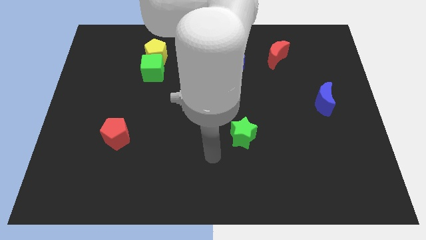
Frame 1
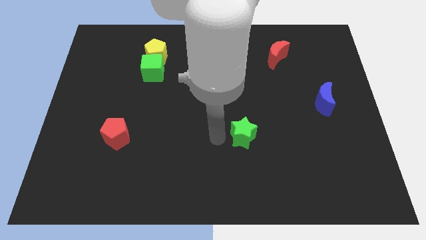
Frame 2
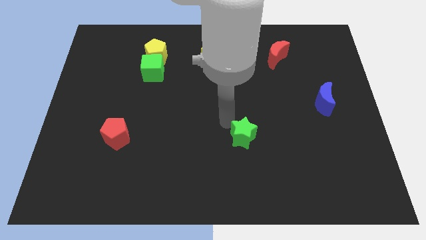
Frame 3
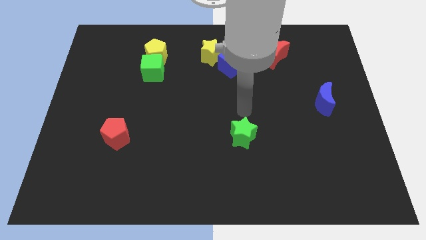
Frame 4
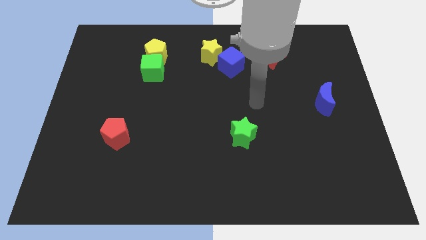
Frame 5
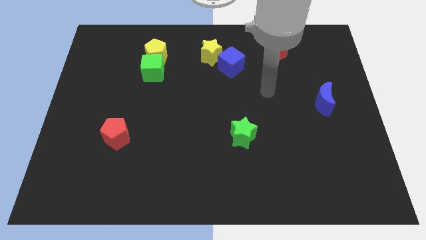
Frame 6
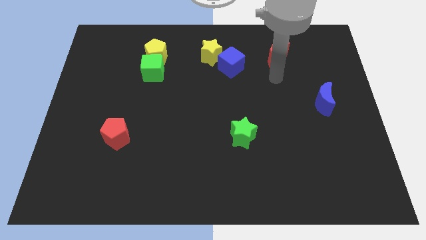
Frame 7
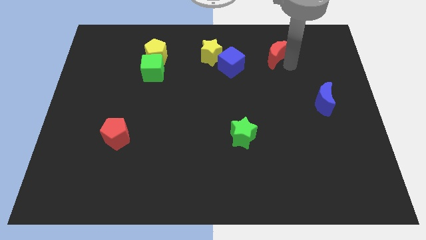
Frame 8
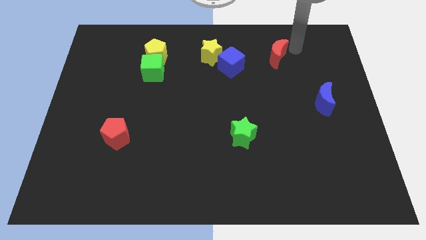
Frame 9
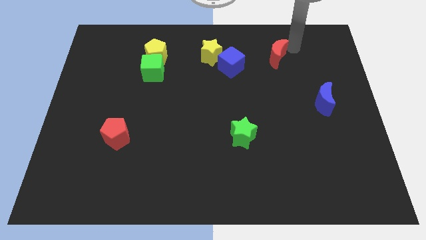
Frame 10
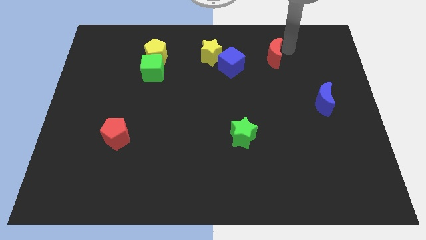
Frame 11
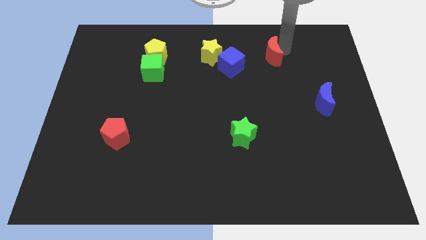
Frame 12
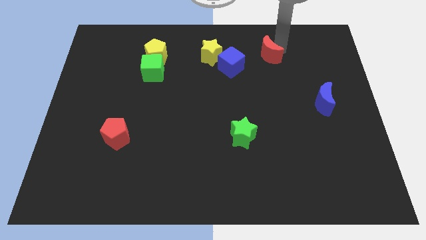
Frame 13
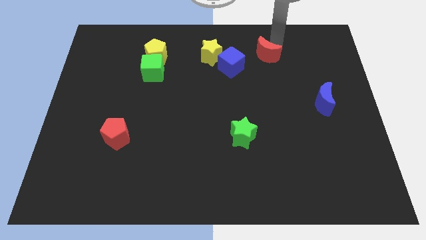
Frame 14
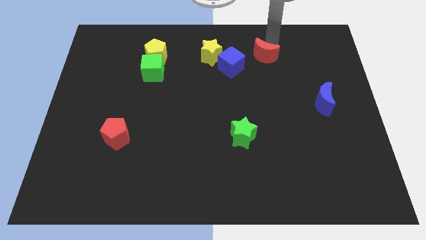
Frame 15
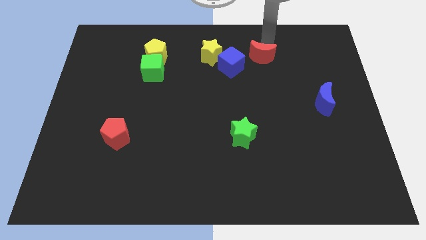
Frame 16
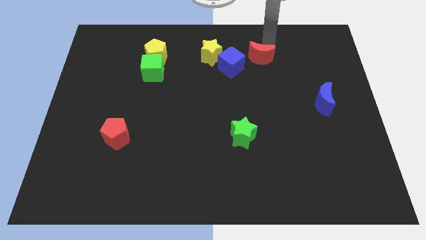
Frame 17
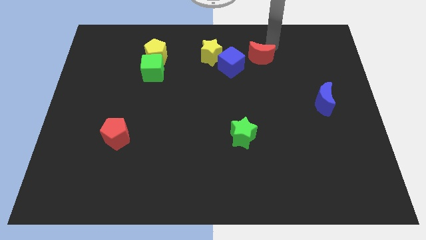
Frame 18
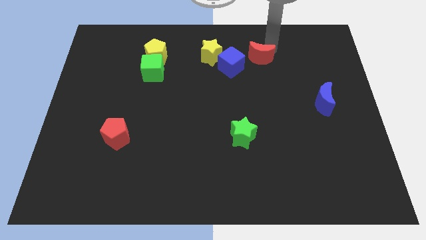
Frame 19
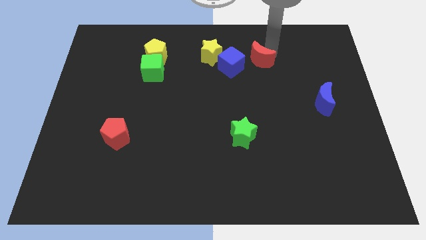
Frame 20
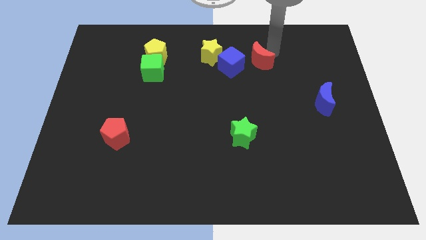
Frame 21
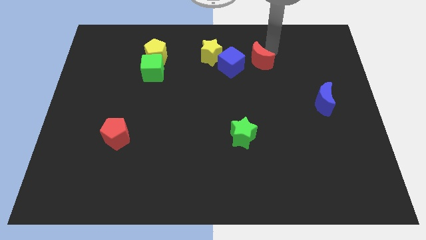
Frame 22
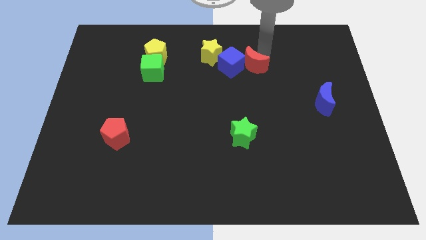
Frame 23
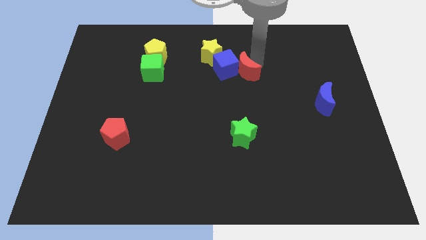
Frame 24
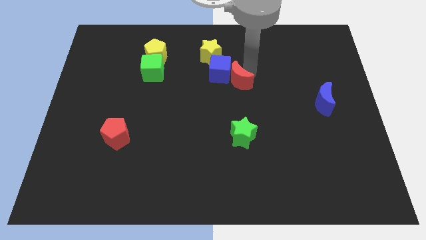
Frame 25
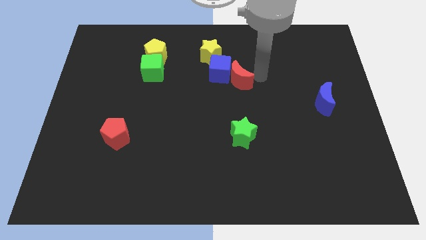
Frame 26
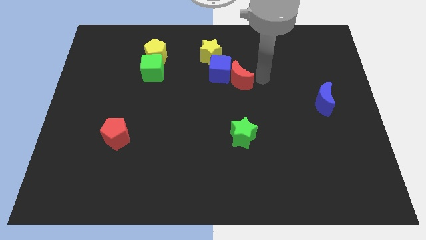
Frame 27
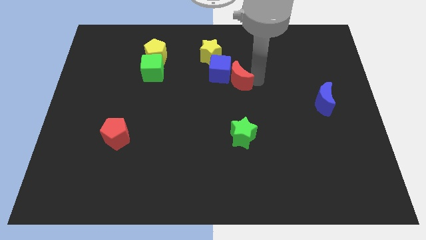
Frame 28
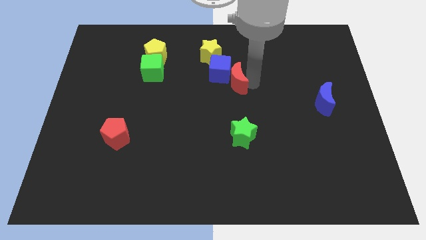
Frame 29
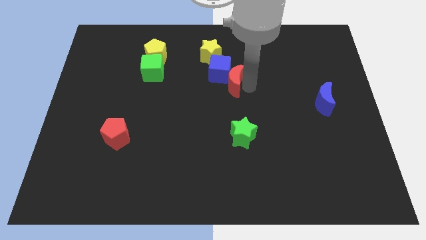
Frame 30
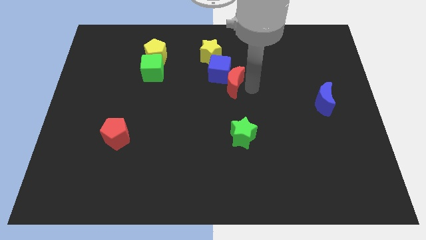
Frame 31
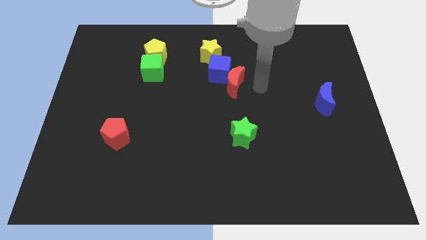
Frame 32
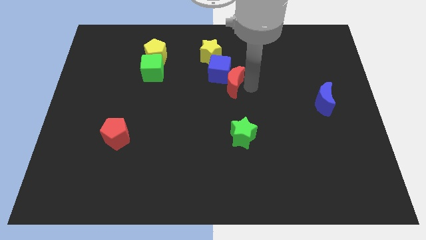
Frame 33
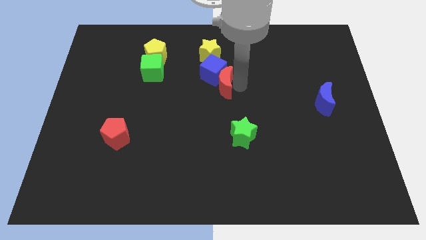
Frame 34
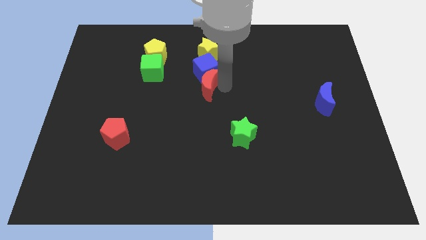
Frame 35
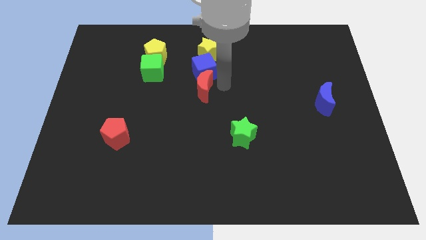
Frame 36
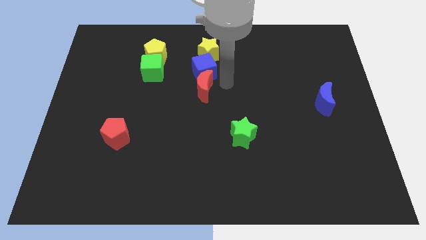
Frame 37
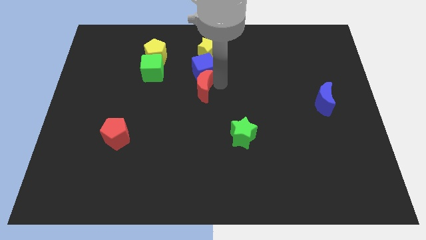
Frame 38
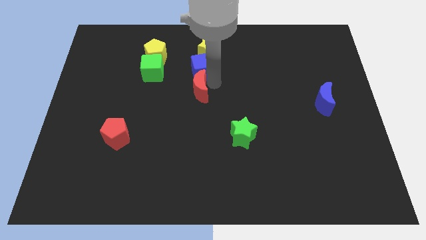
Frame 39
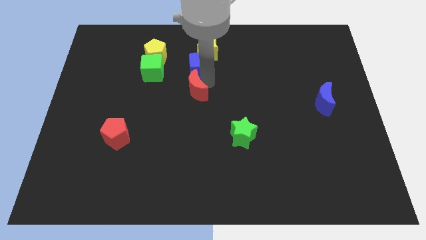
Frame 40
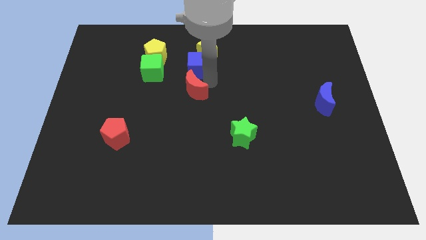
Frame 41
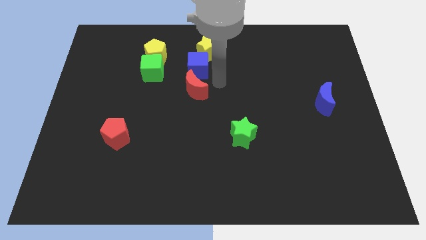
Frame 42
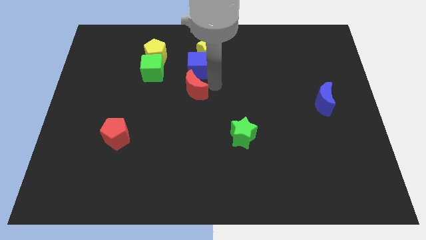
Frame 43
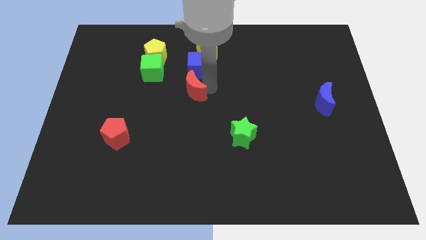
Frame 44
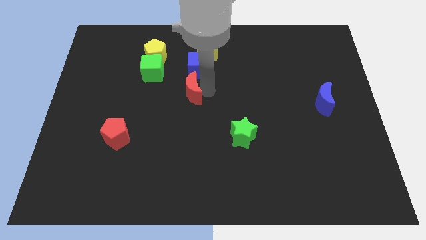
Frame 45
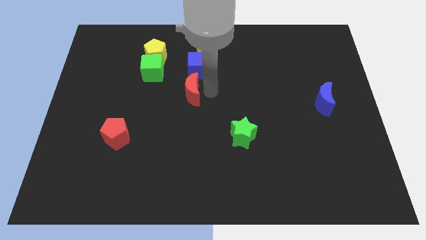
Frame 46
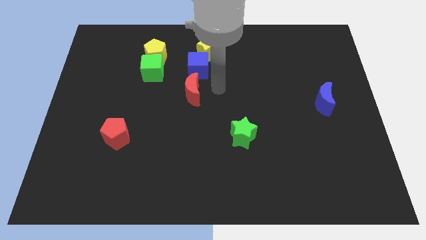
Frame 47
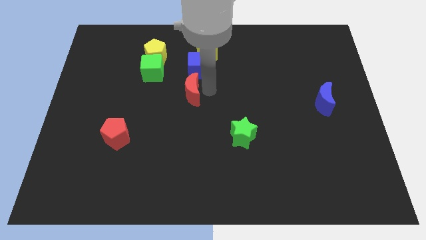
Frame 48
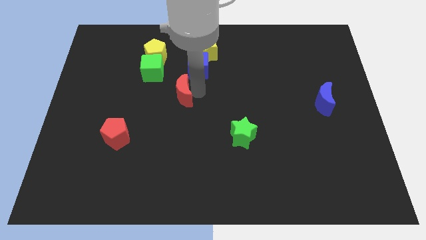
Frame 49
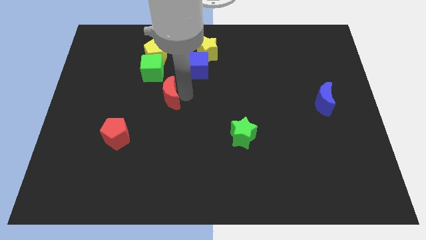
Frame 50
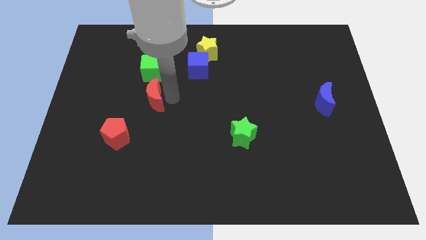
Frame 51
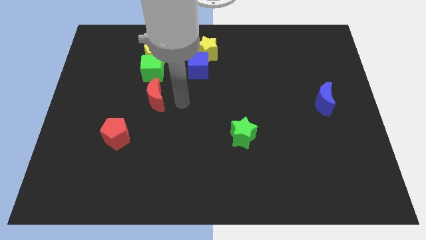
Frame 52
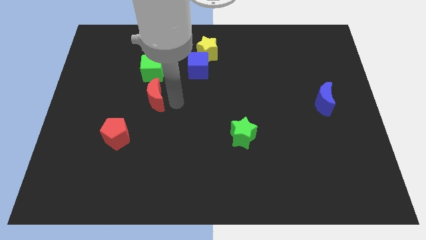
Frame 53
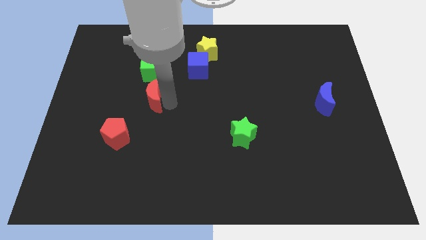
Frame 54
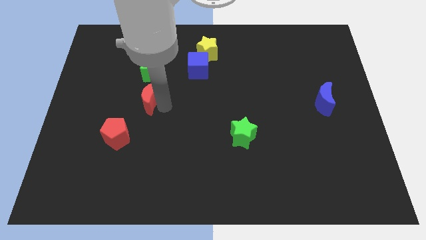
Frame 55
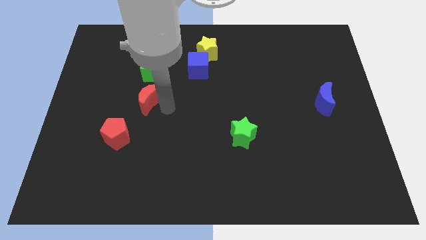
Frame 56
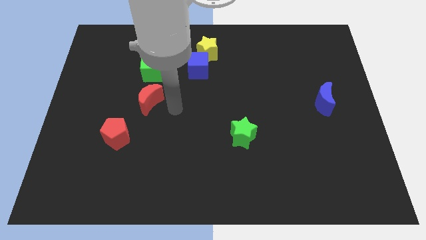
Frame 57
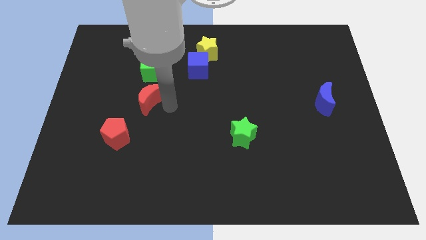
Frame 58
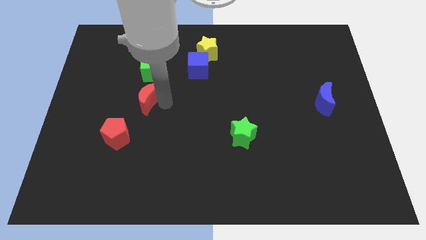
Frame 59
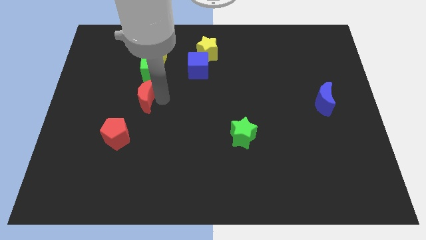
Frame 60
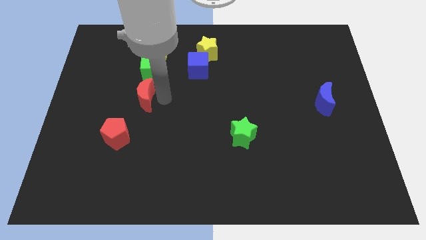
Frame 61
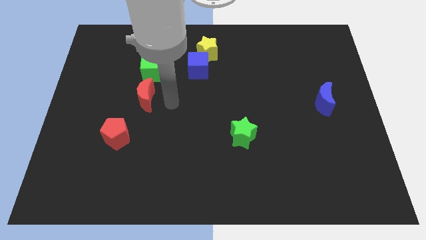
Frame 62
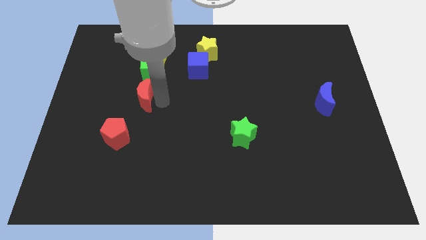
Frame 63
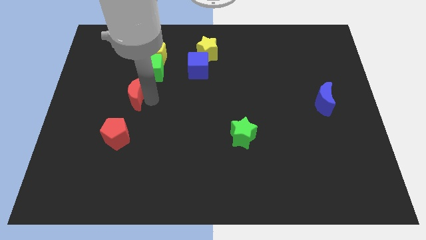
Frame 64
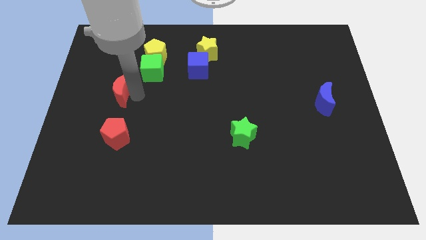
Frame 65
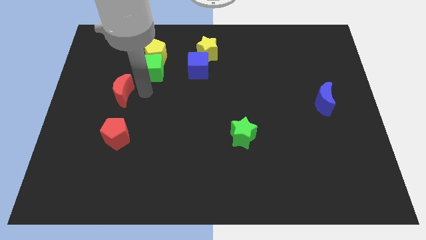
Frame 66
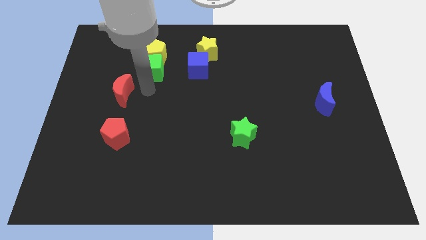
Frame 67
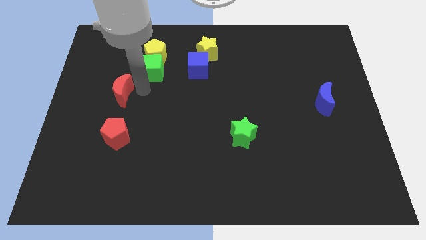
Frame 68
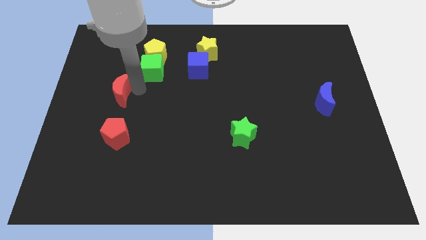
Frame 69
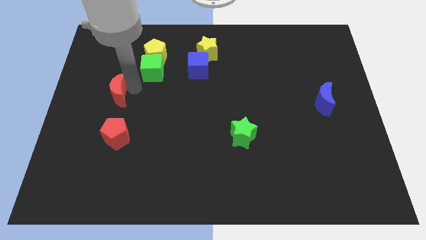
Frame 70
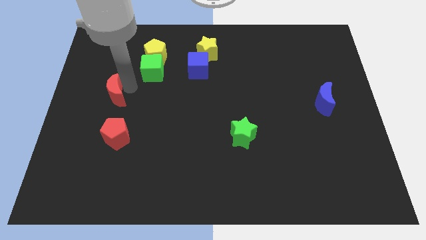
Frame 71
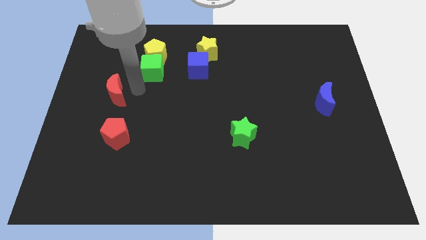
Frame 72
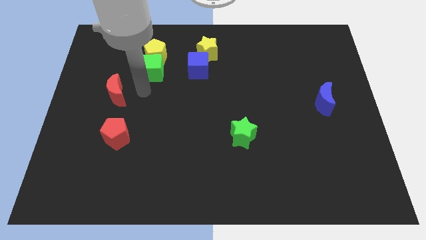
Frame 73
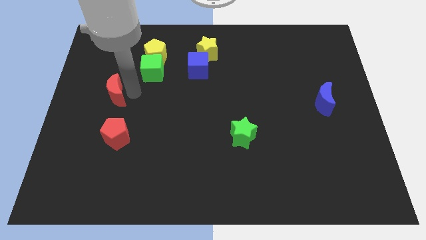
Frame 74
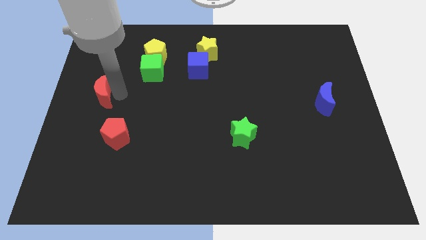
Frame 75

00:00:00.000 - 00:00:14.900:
move the red moon to the left side
